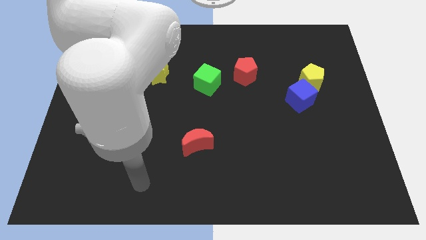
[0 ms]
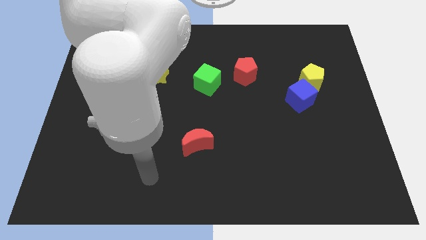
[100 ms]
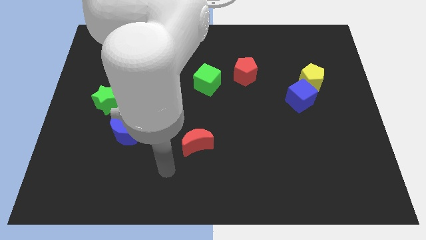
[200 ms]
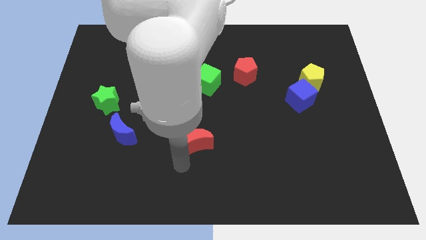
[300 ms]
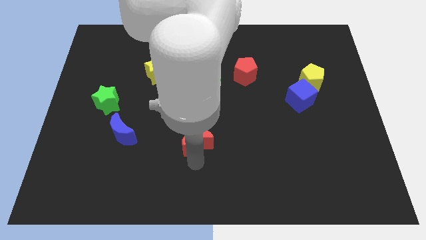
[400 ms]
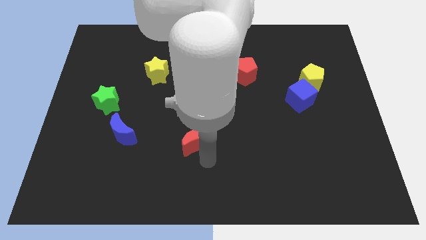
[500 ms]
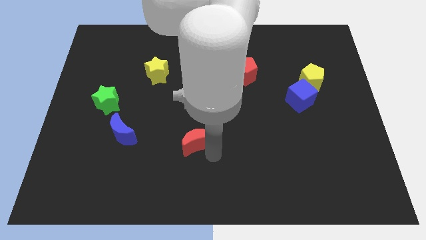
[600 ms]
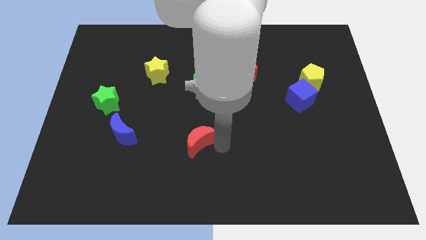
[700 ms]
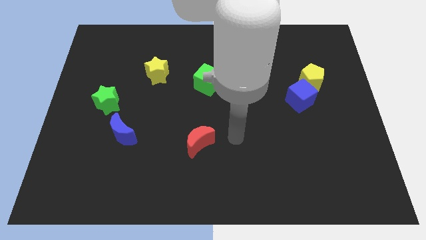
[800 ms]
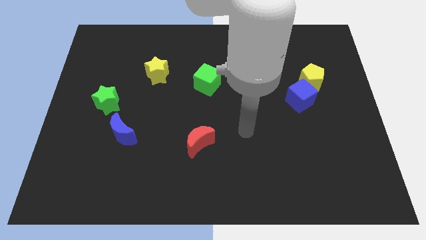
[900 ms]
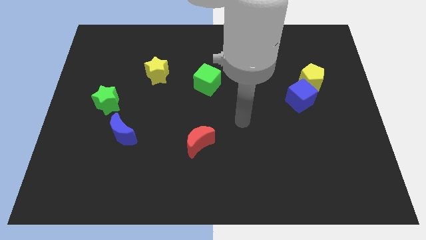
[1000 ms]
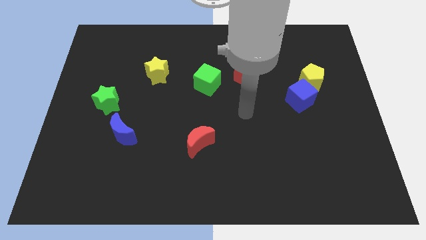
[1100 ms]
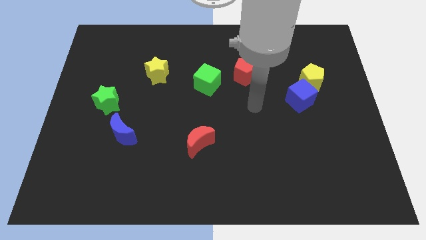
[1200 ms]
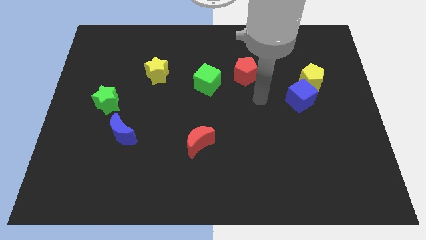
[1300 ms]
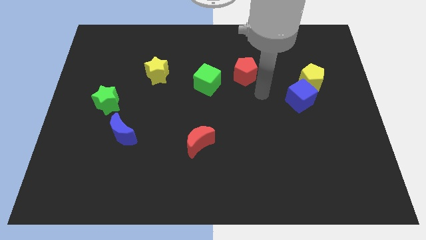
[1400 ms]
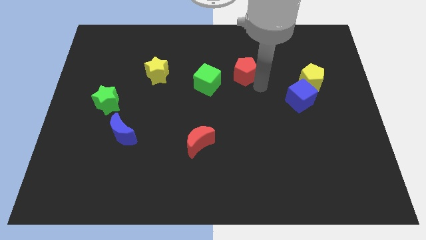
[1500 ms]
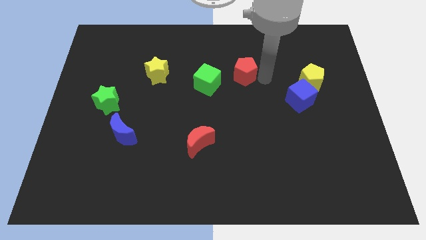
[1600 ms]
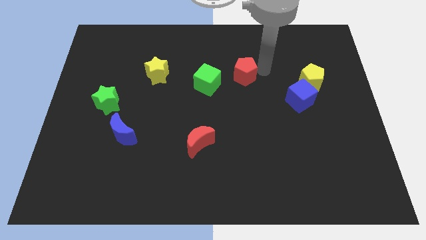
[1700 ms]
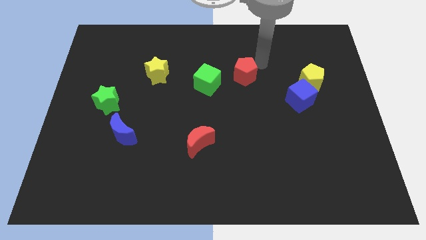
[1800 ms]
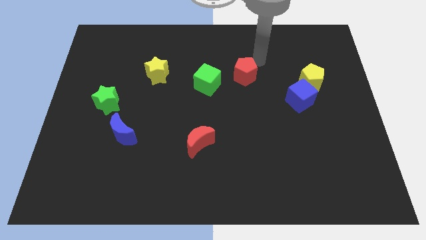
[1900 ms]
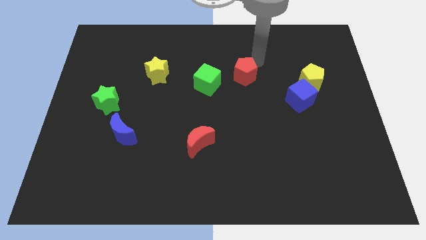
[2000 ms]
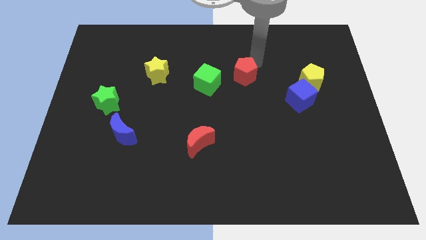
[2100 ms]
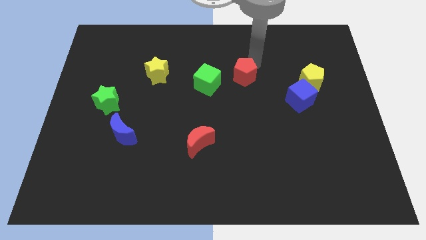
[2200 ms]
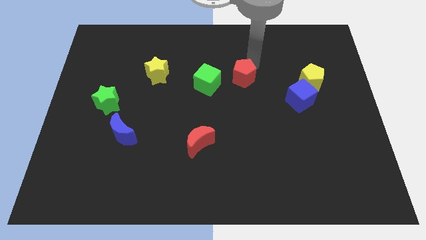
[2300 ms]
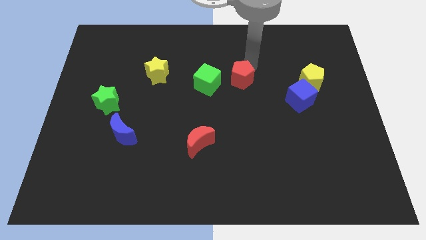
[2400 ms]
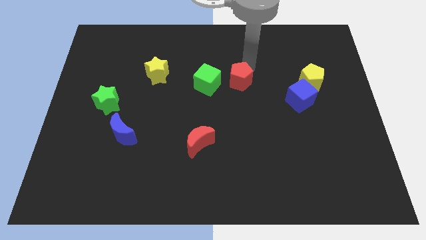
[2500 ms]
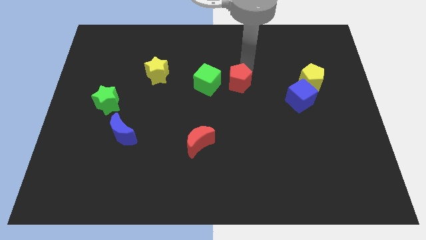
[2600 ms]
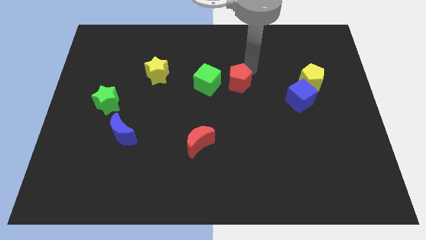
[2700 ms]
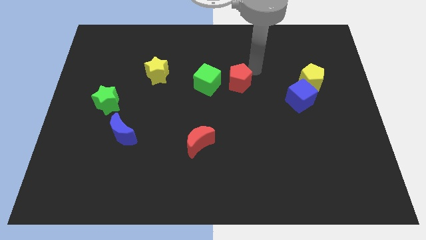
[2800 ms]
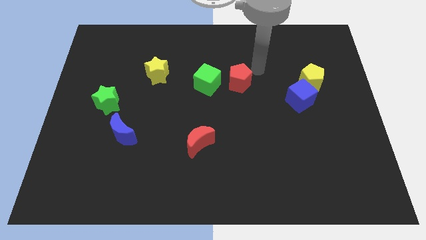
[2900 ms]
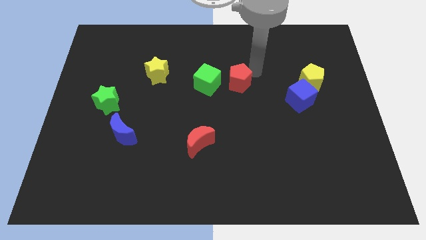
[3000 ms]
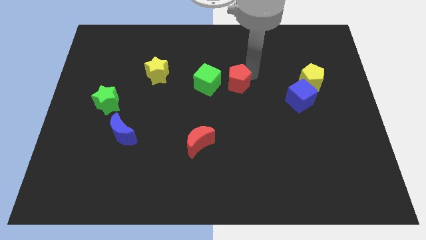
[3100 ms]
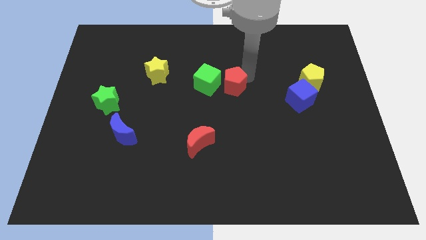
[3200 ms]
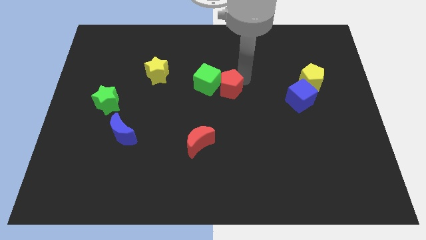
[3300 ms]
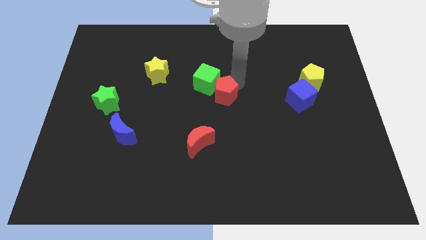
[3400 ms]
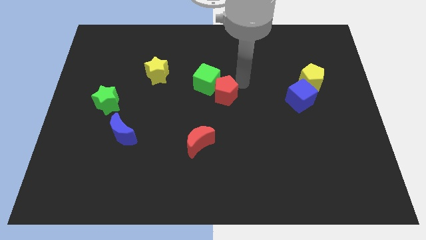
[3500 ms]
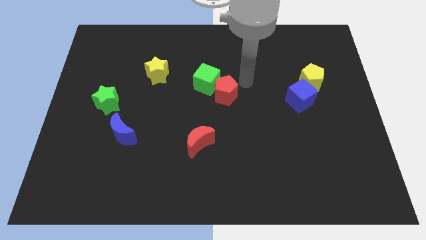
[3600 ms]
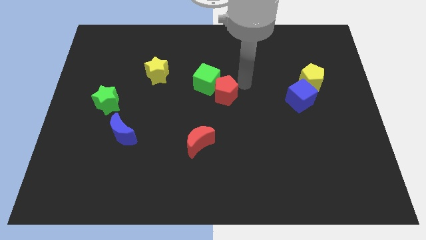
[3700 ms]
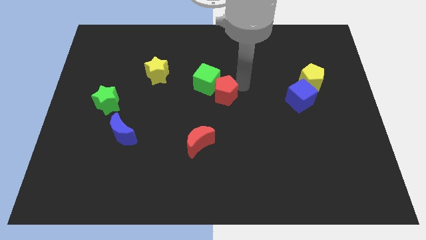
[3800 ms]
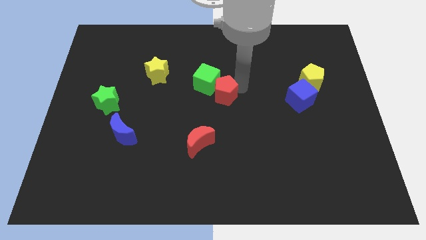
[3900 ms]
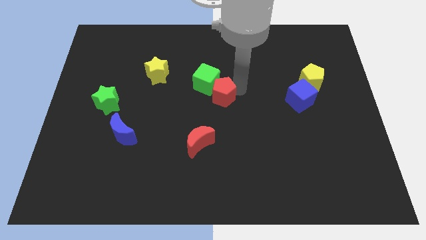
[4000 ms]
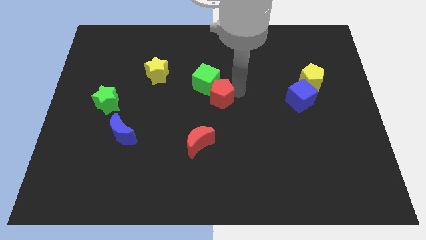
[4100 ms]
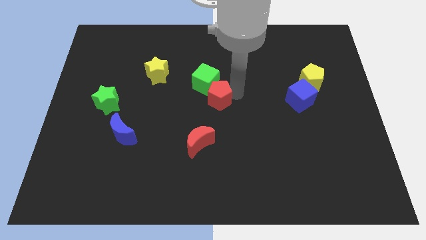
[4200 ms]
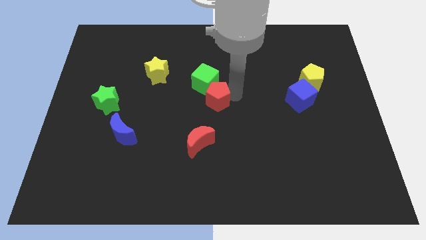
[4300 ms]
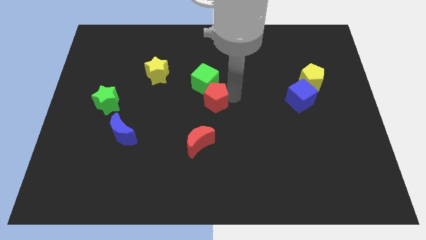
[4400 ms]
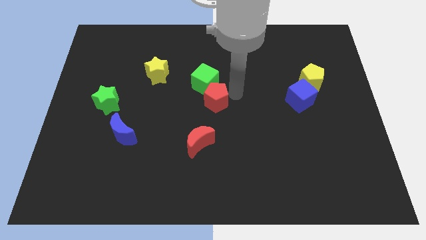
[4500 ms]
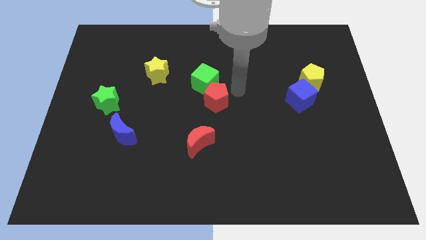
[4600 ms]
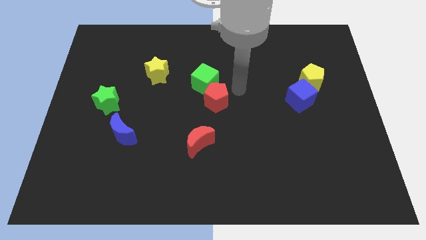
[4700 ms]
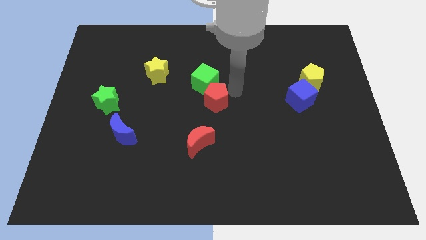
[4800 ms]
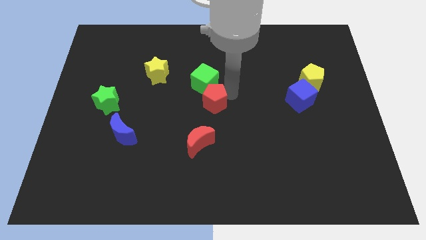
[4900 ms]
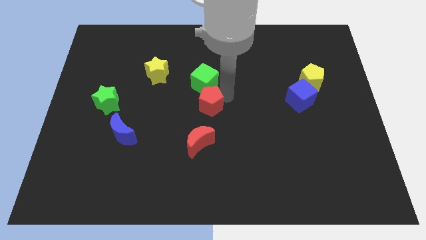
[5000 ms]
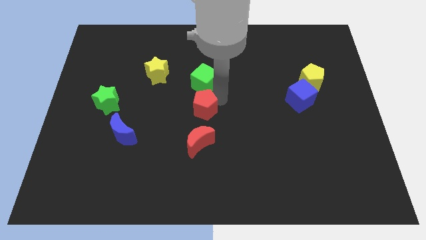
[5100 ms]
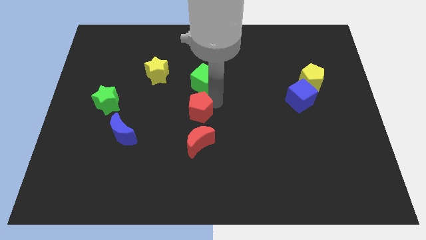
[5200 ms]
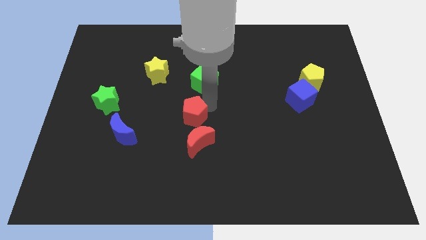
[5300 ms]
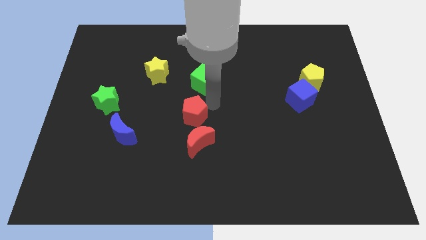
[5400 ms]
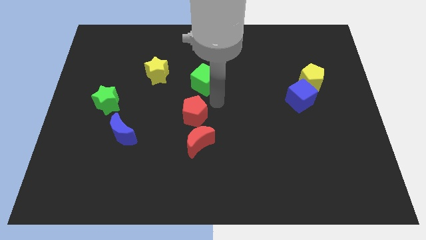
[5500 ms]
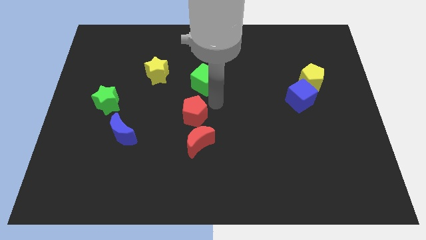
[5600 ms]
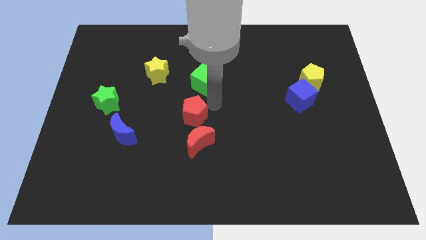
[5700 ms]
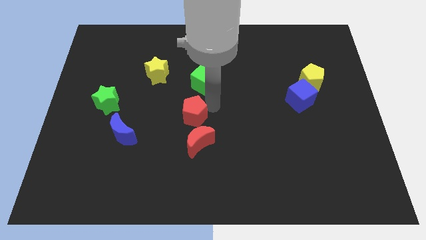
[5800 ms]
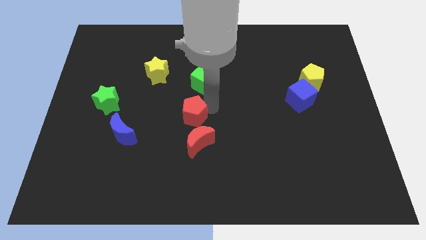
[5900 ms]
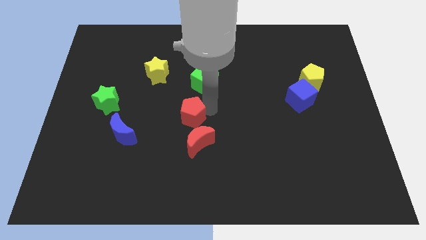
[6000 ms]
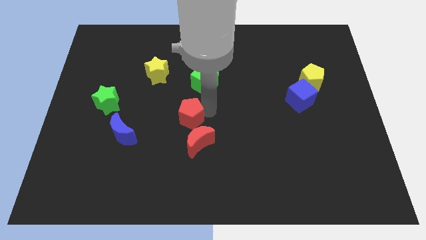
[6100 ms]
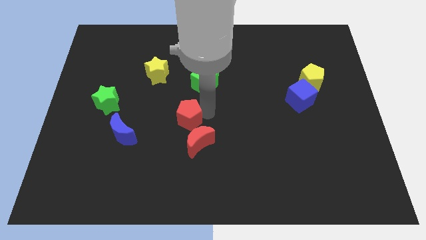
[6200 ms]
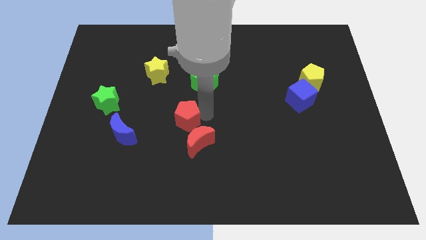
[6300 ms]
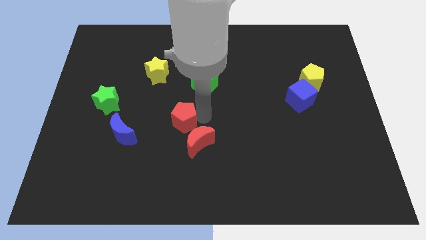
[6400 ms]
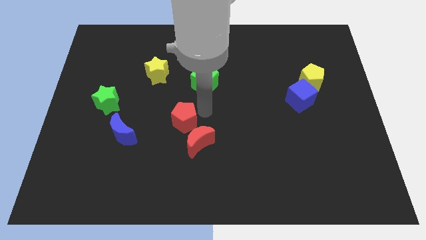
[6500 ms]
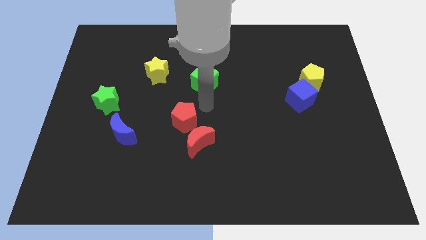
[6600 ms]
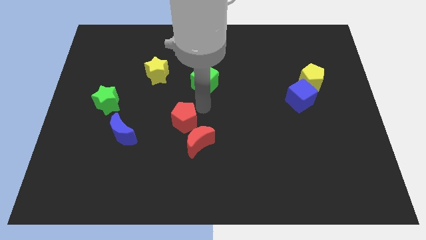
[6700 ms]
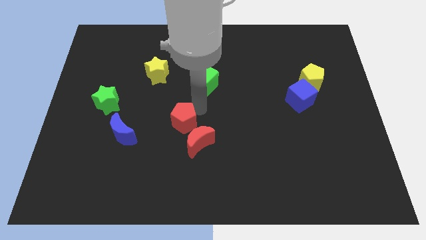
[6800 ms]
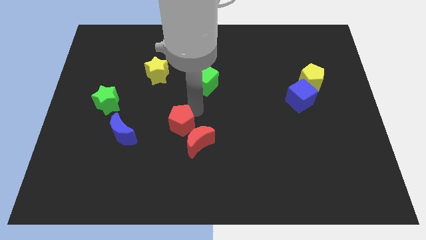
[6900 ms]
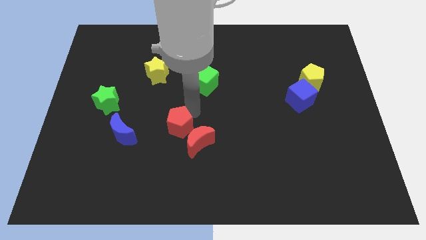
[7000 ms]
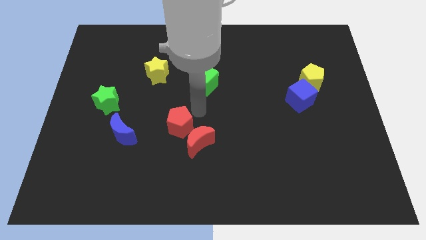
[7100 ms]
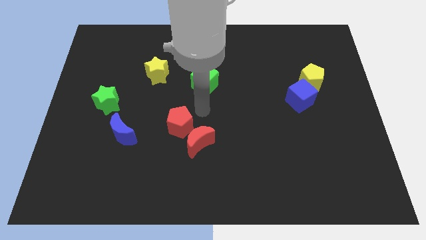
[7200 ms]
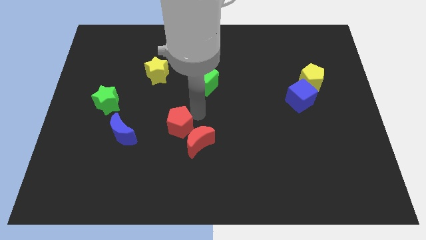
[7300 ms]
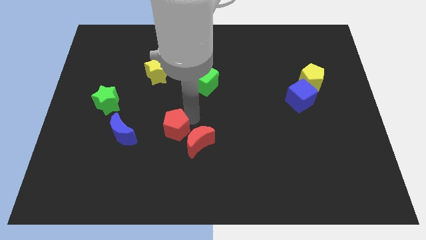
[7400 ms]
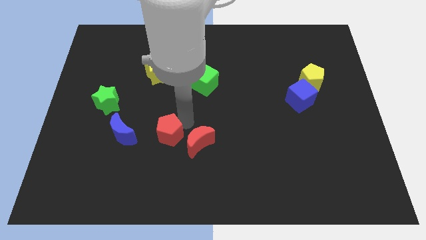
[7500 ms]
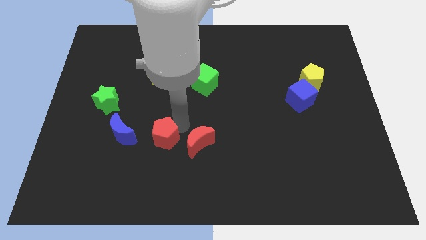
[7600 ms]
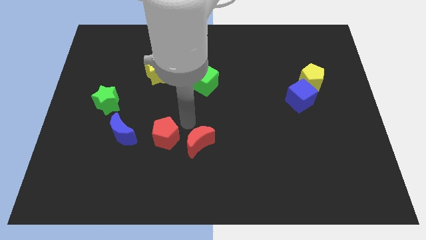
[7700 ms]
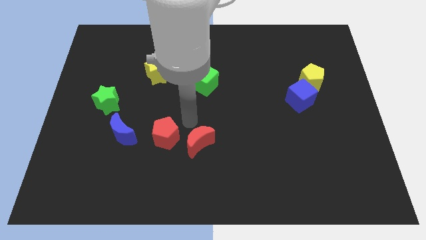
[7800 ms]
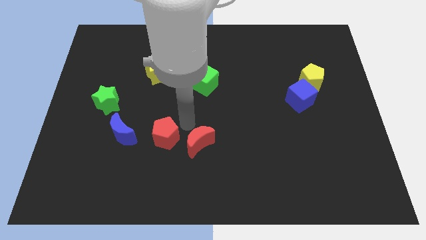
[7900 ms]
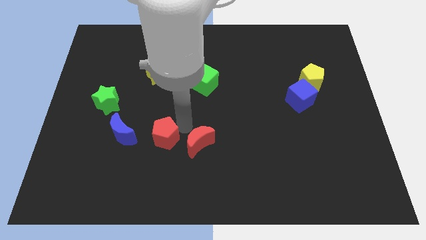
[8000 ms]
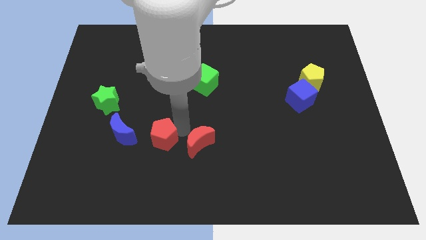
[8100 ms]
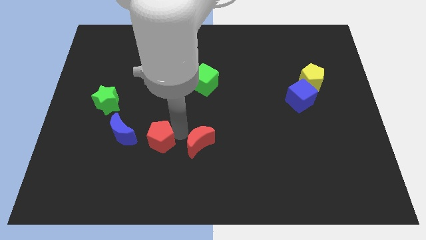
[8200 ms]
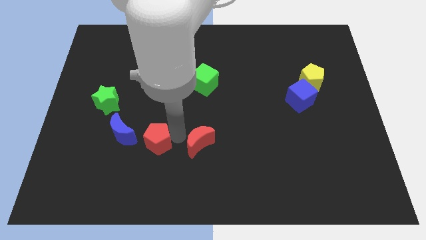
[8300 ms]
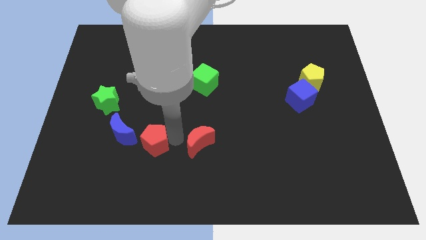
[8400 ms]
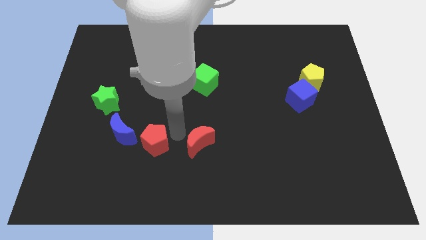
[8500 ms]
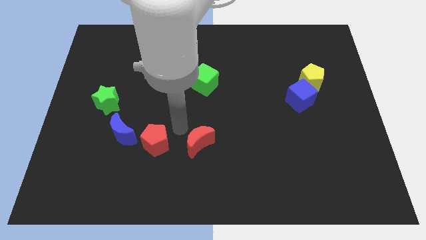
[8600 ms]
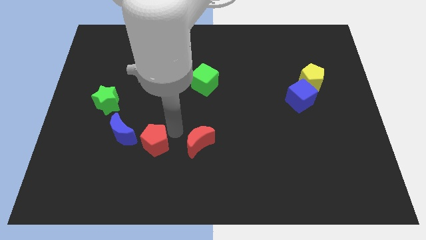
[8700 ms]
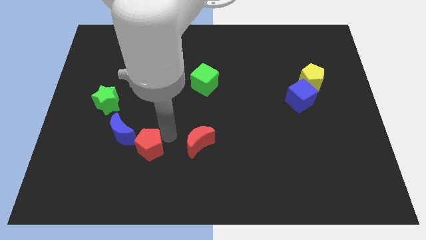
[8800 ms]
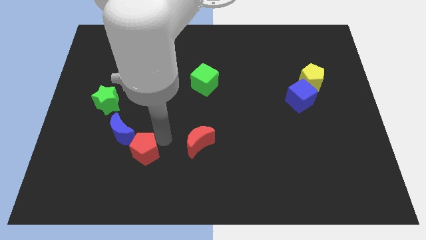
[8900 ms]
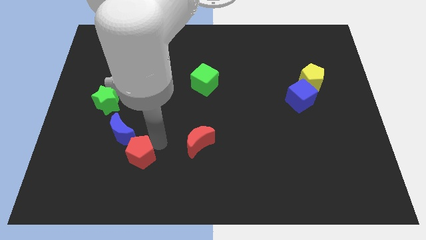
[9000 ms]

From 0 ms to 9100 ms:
move the red pentagon to the bottom side of the blue moon
